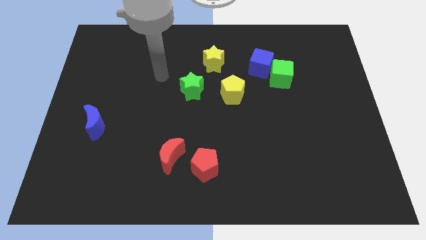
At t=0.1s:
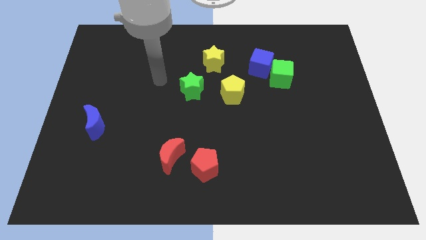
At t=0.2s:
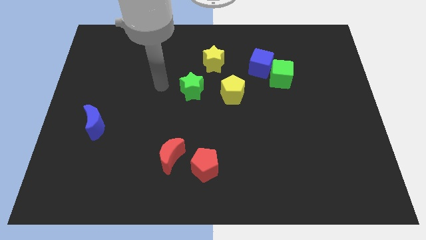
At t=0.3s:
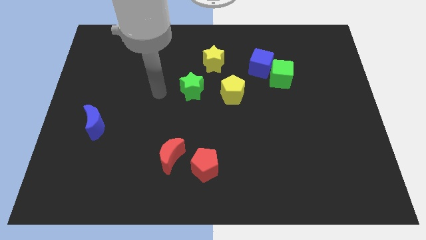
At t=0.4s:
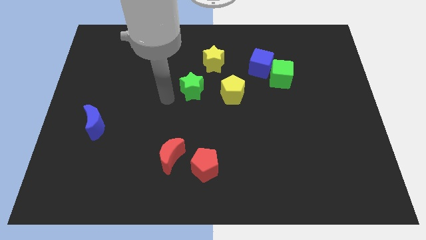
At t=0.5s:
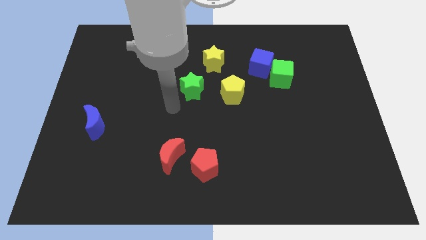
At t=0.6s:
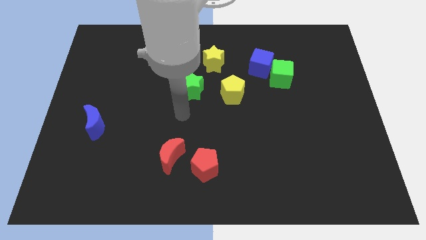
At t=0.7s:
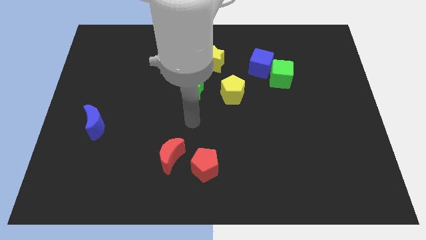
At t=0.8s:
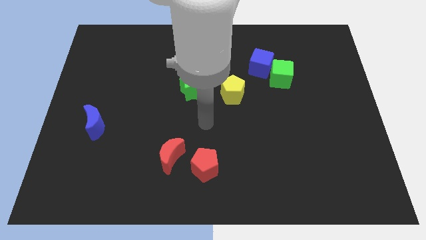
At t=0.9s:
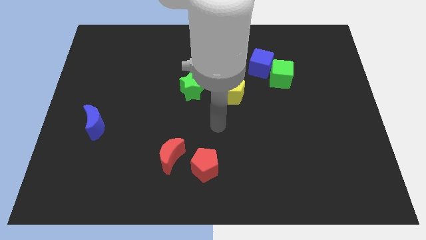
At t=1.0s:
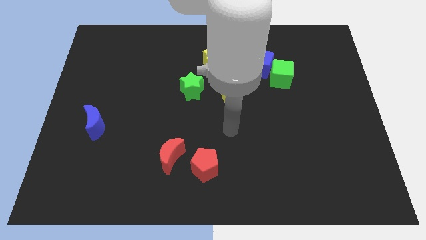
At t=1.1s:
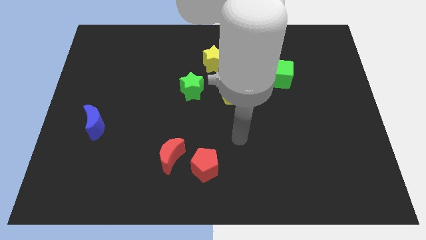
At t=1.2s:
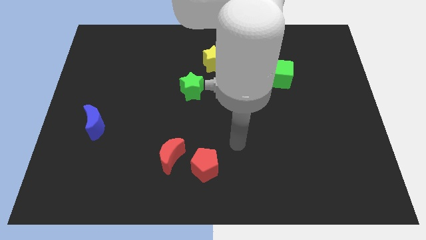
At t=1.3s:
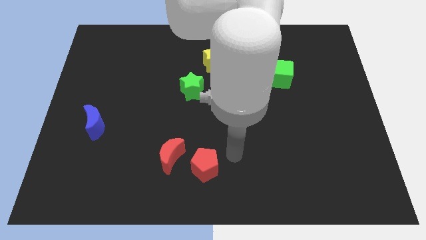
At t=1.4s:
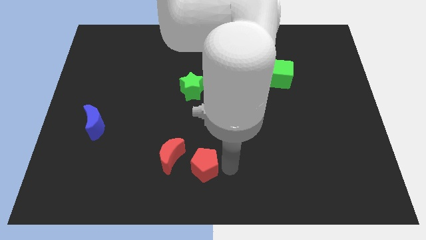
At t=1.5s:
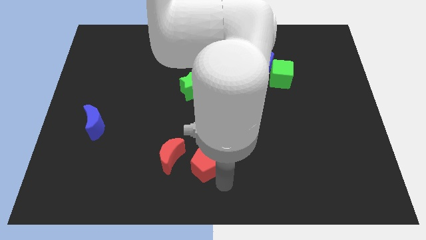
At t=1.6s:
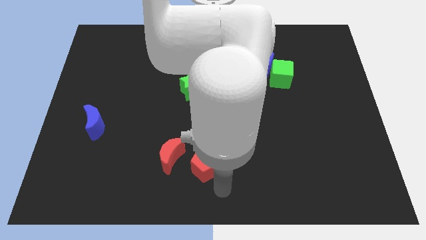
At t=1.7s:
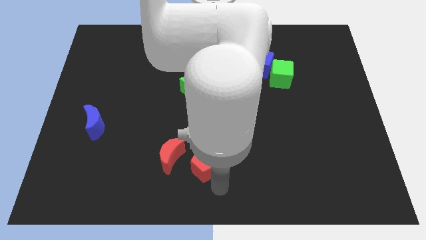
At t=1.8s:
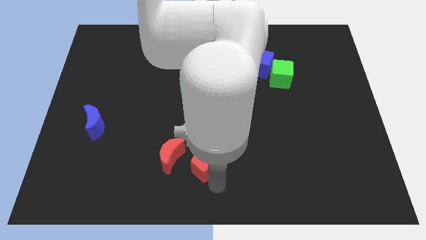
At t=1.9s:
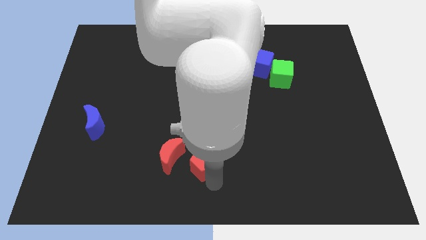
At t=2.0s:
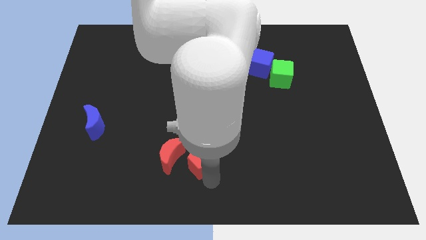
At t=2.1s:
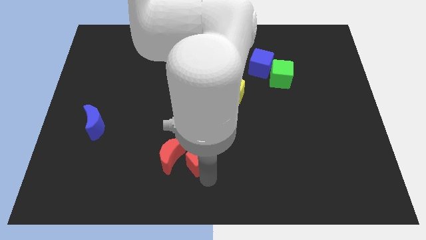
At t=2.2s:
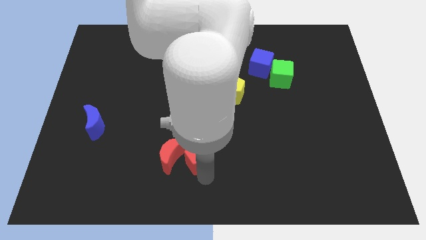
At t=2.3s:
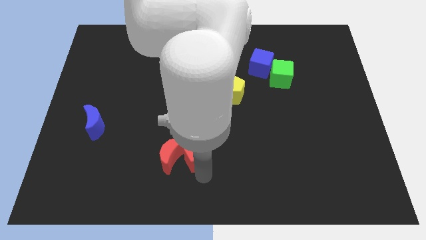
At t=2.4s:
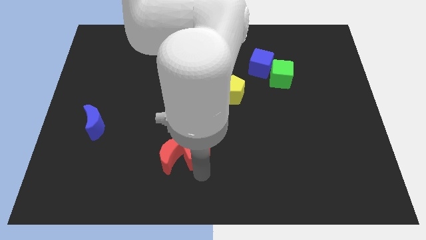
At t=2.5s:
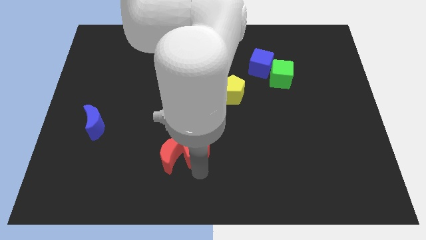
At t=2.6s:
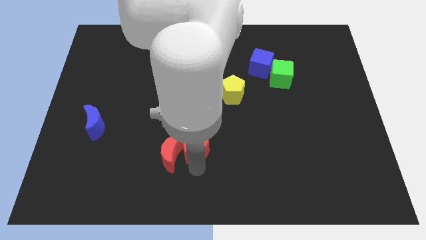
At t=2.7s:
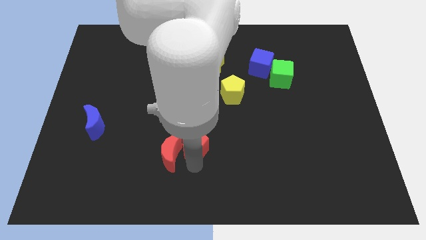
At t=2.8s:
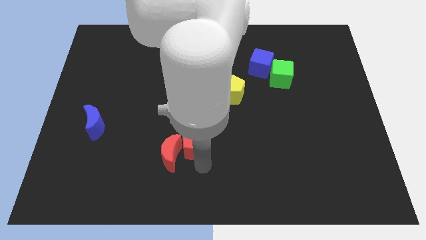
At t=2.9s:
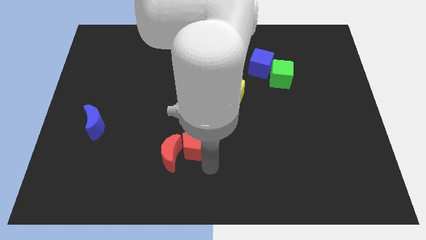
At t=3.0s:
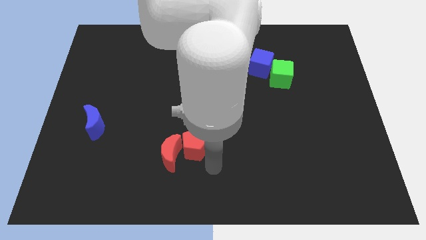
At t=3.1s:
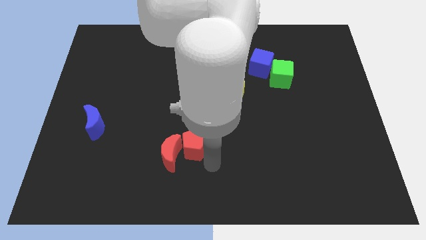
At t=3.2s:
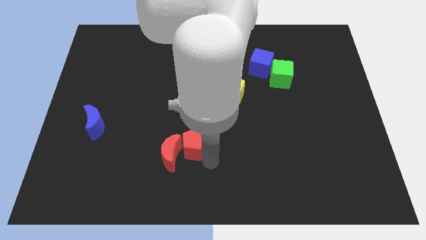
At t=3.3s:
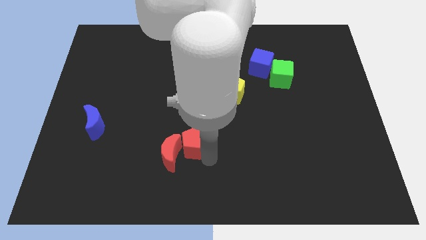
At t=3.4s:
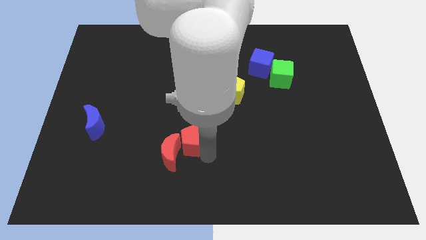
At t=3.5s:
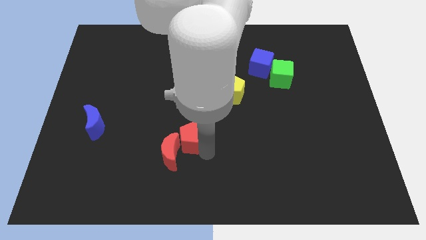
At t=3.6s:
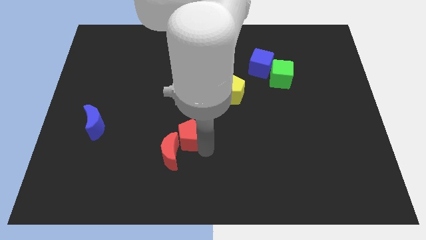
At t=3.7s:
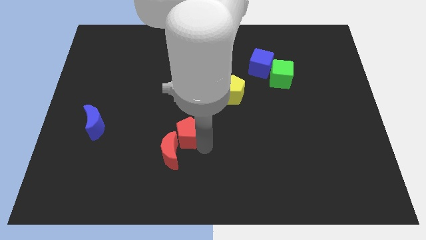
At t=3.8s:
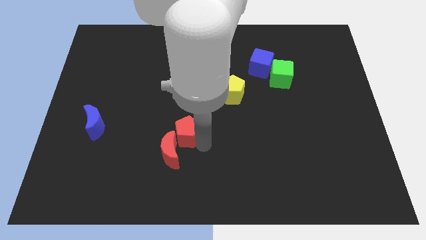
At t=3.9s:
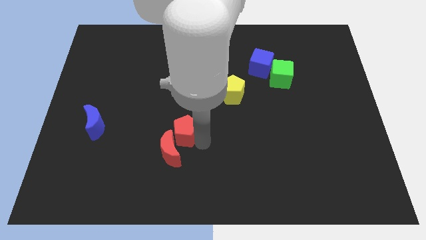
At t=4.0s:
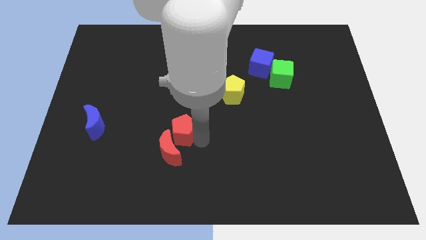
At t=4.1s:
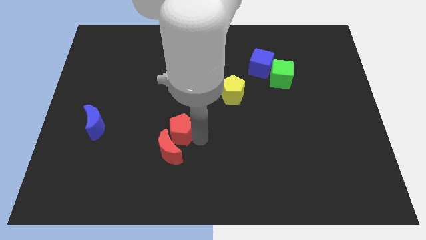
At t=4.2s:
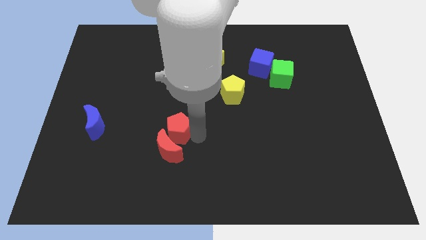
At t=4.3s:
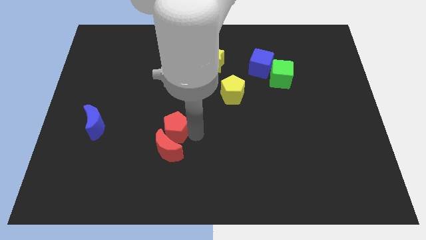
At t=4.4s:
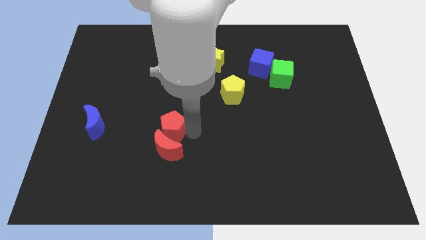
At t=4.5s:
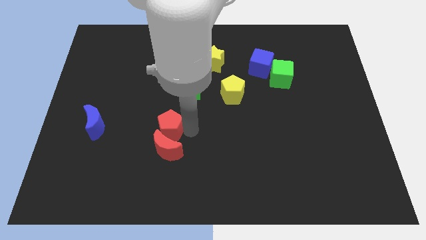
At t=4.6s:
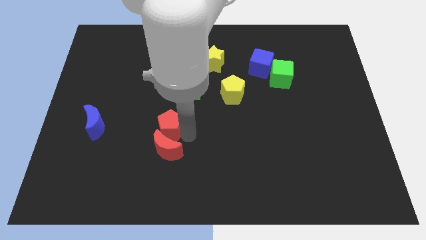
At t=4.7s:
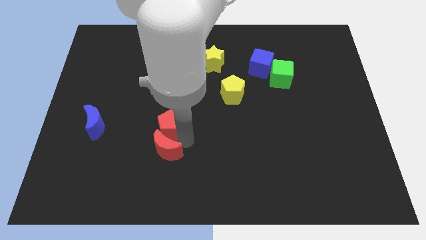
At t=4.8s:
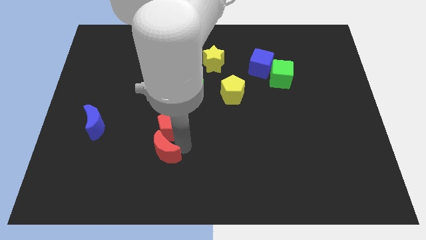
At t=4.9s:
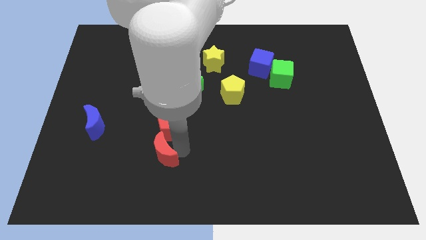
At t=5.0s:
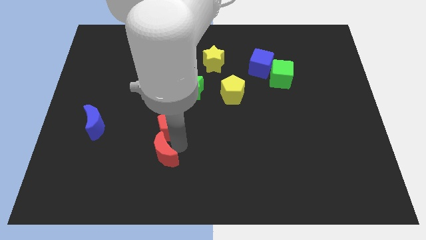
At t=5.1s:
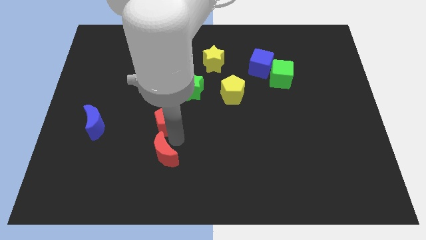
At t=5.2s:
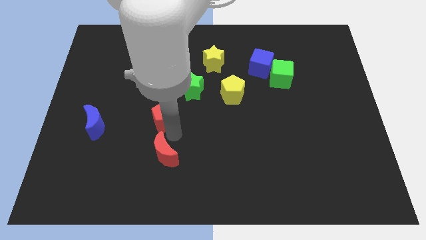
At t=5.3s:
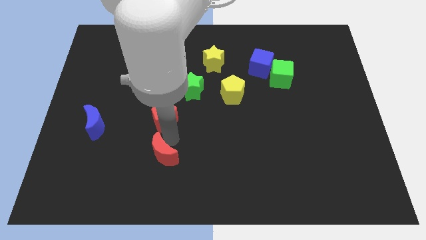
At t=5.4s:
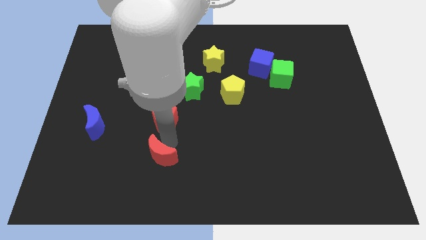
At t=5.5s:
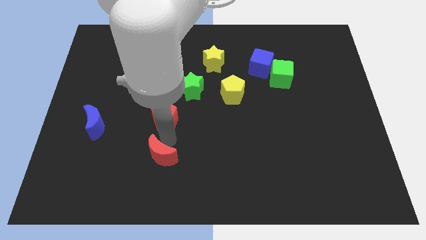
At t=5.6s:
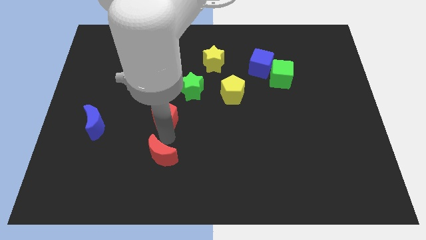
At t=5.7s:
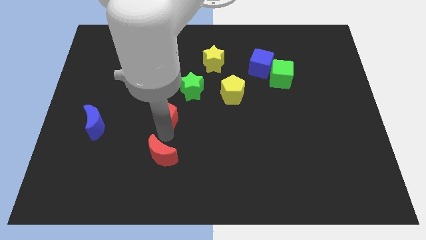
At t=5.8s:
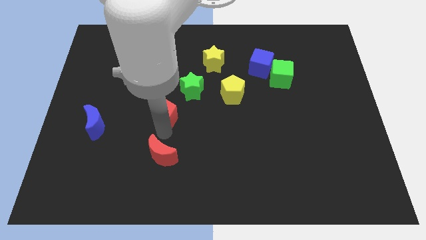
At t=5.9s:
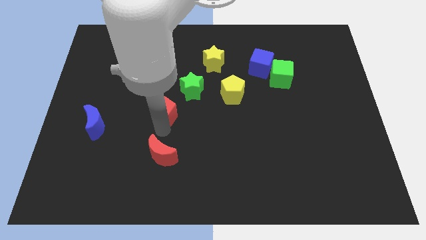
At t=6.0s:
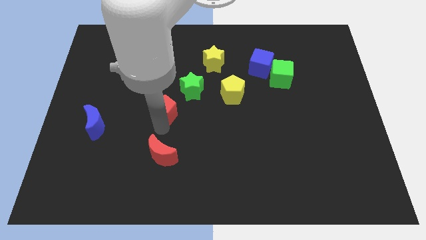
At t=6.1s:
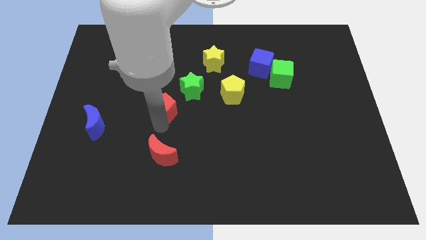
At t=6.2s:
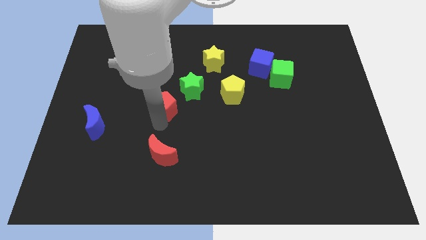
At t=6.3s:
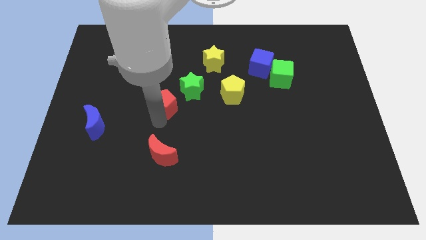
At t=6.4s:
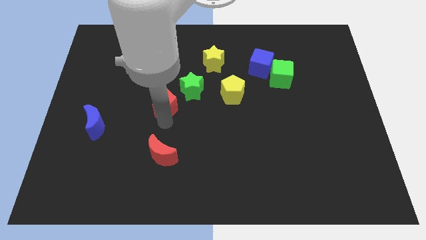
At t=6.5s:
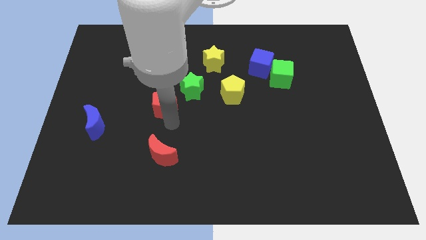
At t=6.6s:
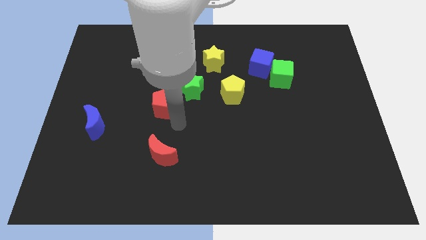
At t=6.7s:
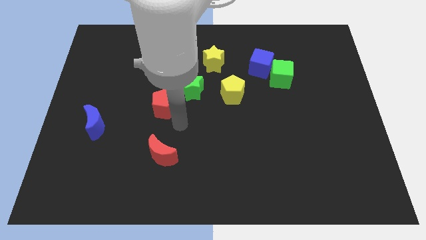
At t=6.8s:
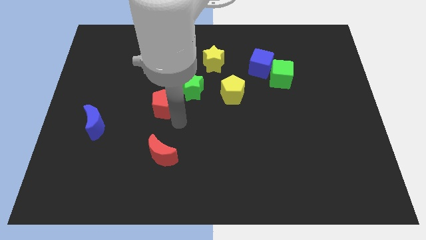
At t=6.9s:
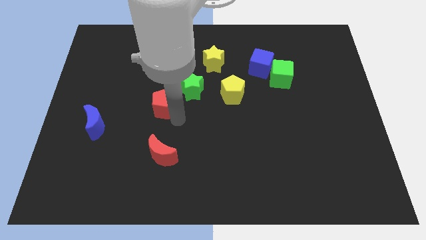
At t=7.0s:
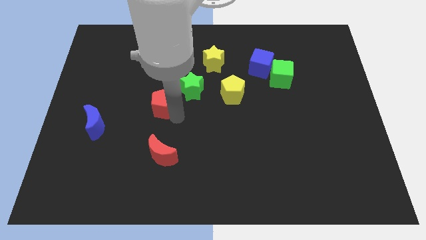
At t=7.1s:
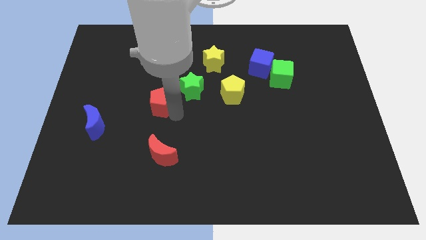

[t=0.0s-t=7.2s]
move the red pentagon just left of the green star

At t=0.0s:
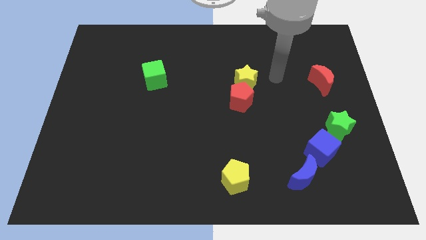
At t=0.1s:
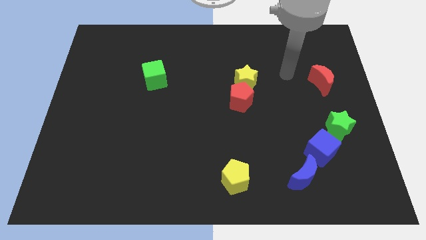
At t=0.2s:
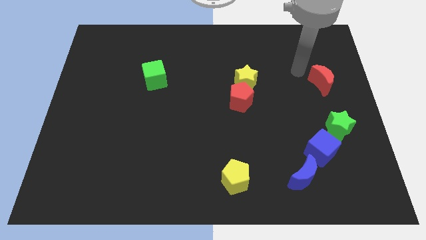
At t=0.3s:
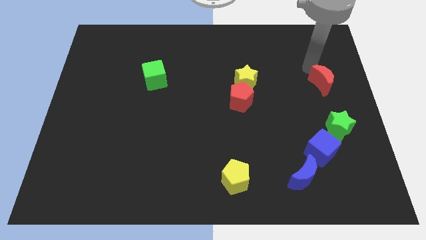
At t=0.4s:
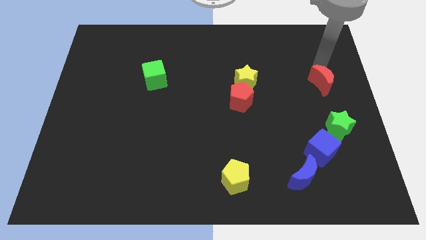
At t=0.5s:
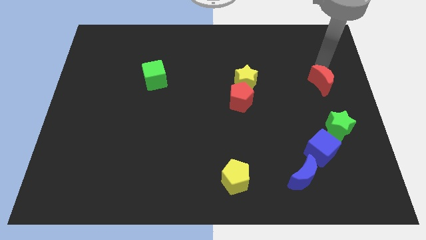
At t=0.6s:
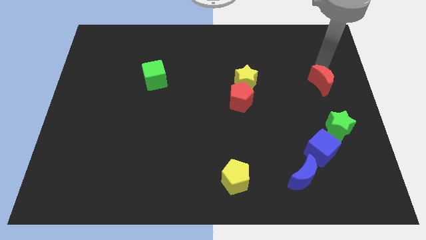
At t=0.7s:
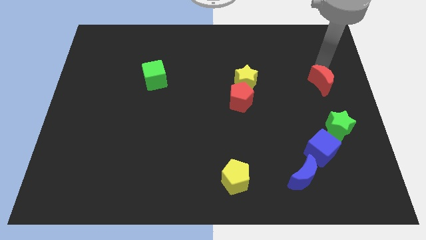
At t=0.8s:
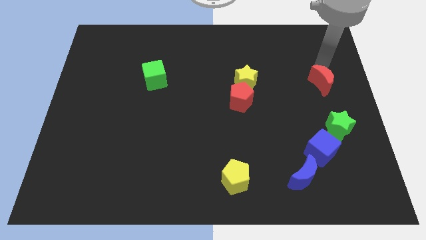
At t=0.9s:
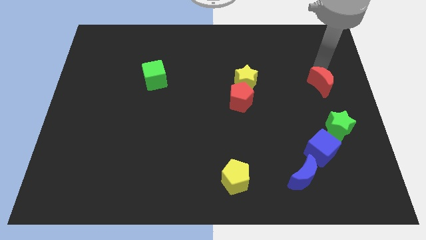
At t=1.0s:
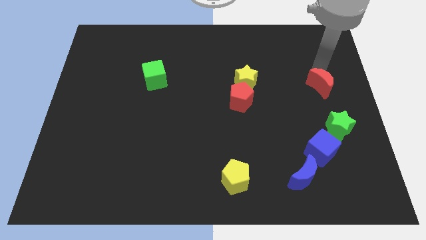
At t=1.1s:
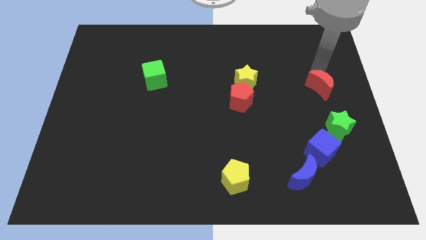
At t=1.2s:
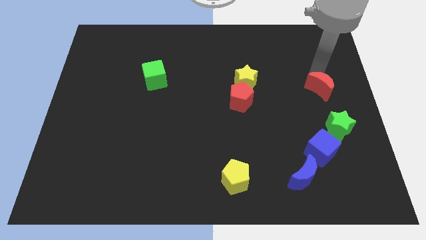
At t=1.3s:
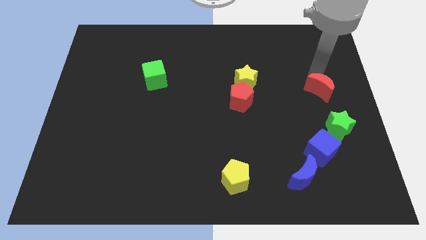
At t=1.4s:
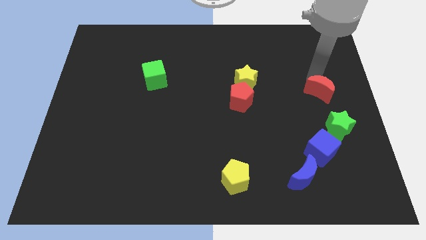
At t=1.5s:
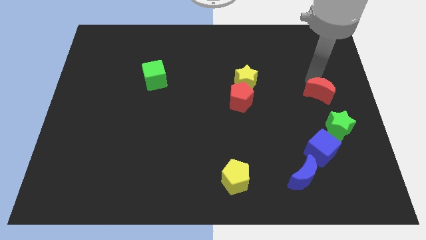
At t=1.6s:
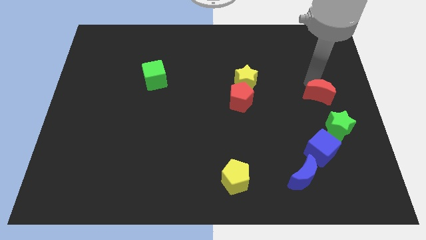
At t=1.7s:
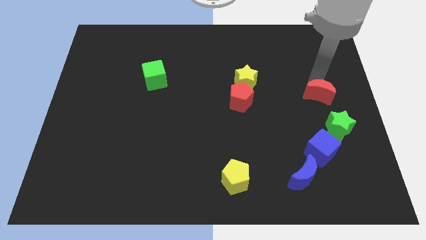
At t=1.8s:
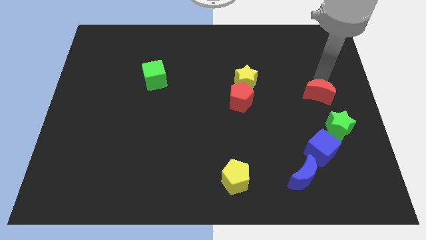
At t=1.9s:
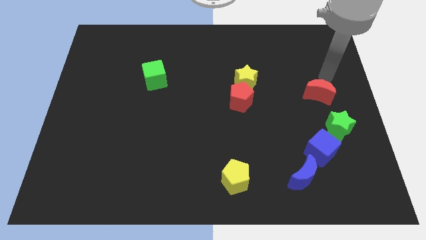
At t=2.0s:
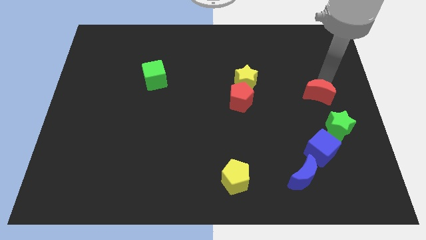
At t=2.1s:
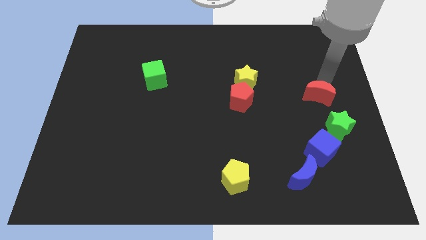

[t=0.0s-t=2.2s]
slide the red moon diagonally up and to the left of the green star
